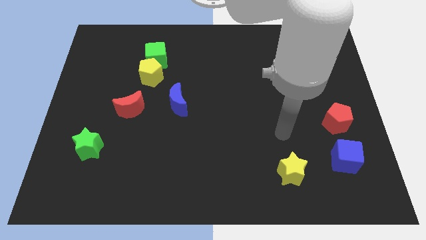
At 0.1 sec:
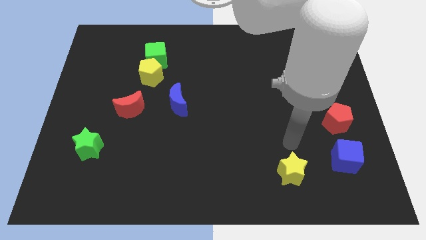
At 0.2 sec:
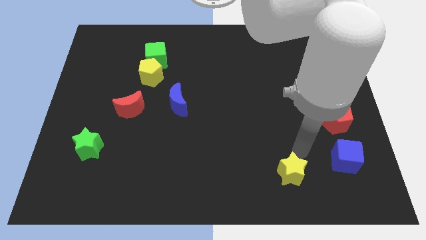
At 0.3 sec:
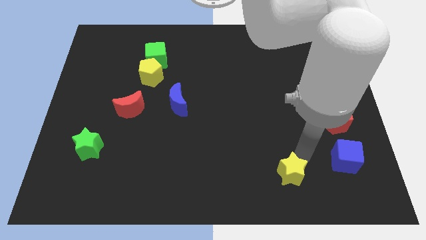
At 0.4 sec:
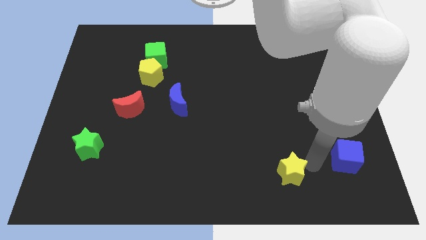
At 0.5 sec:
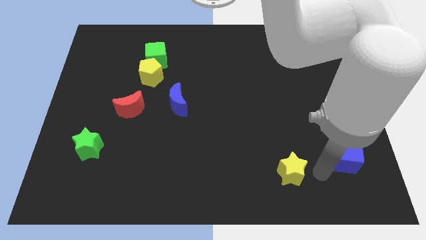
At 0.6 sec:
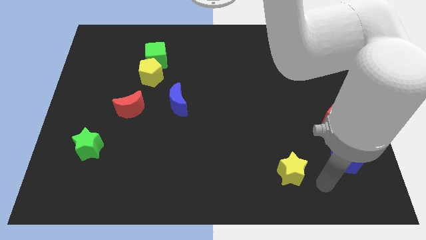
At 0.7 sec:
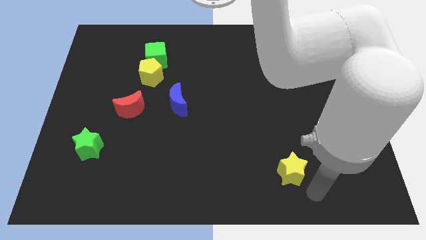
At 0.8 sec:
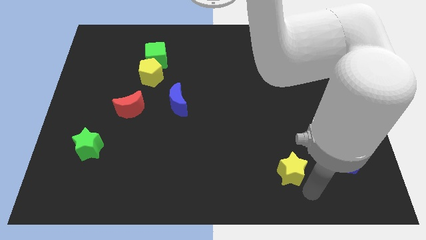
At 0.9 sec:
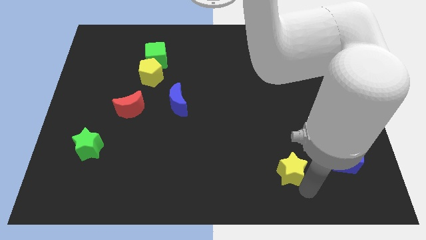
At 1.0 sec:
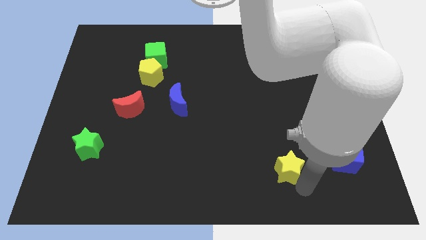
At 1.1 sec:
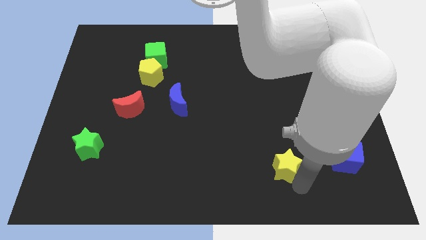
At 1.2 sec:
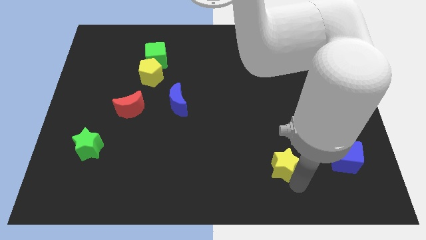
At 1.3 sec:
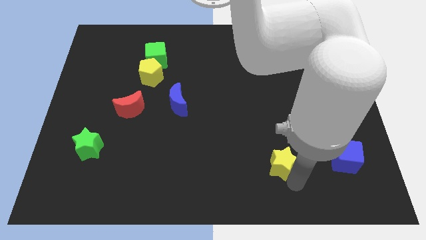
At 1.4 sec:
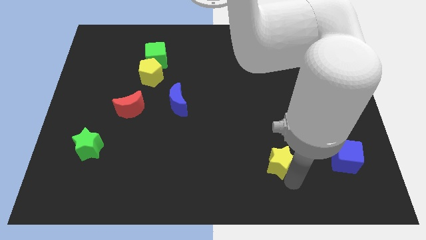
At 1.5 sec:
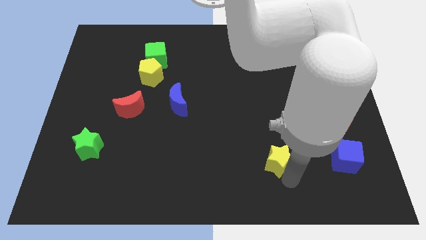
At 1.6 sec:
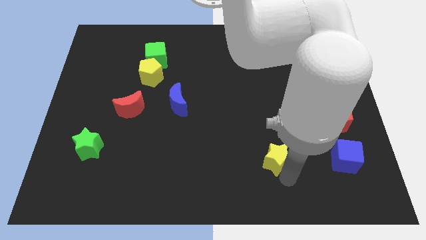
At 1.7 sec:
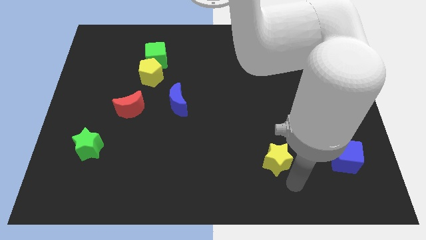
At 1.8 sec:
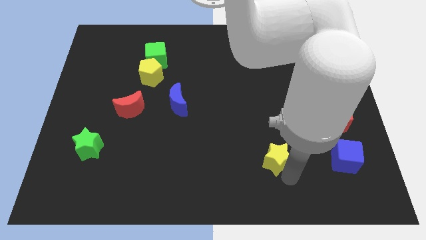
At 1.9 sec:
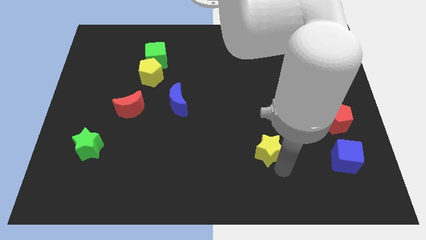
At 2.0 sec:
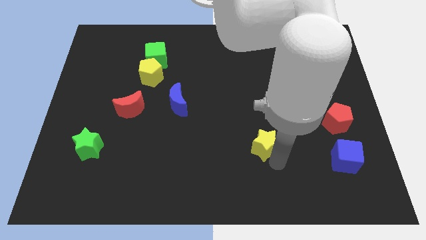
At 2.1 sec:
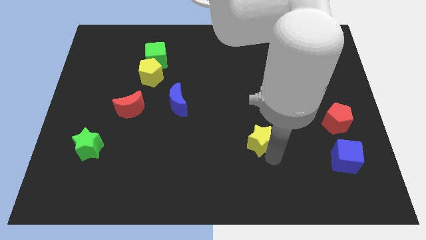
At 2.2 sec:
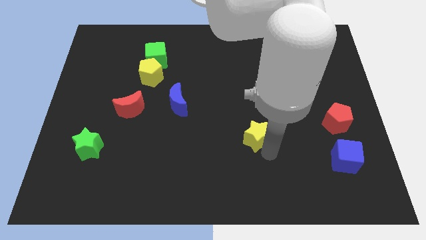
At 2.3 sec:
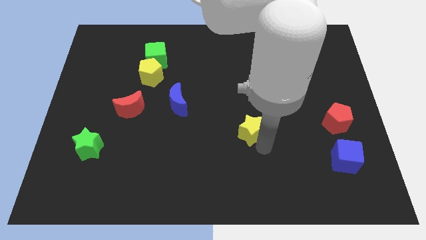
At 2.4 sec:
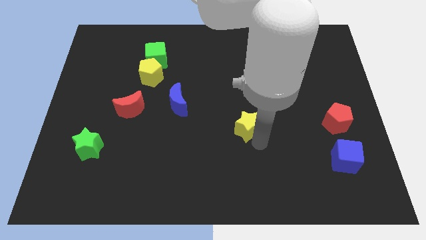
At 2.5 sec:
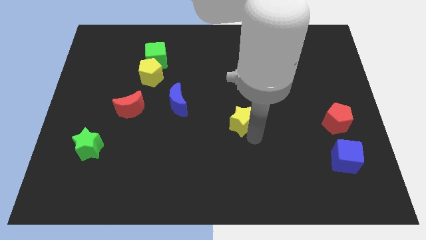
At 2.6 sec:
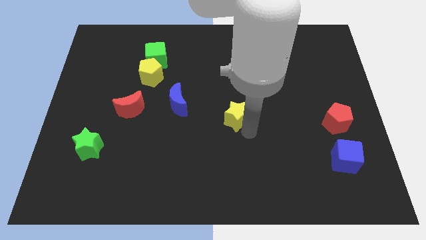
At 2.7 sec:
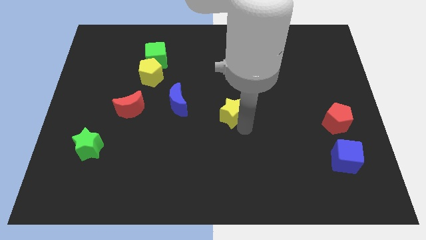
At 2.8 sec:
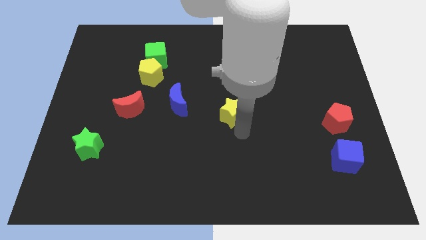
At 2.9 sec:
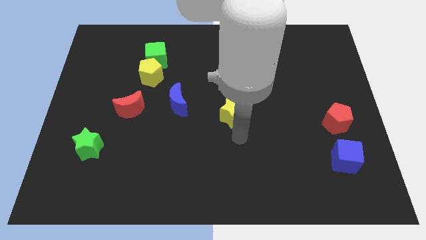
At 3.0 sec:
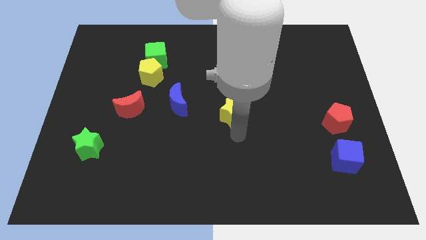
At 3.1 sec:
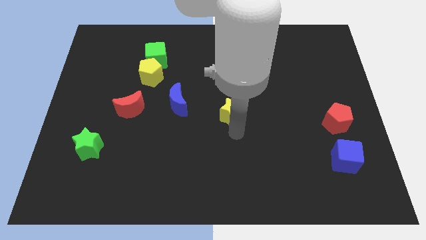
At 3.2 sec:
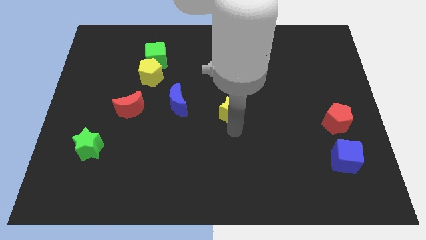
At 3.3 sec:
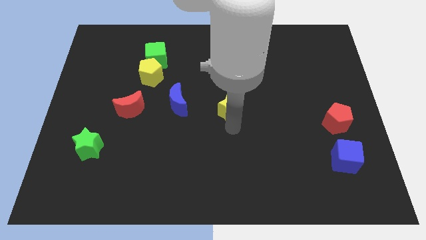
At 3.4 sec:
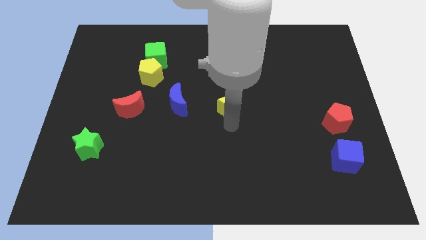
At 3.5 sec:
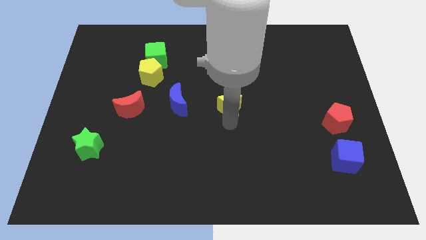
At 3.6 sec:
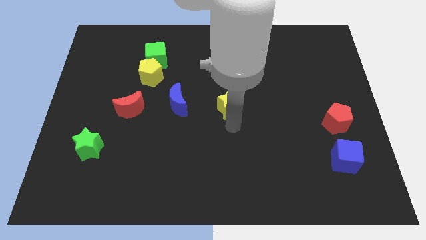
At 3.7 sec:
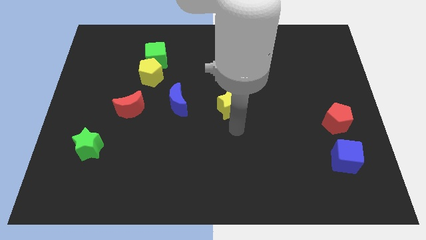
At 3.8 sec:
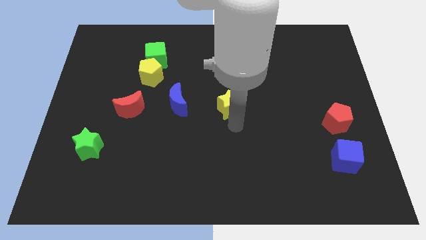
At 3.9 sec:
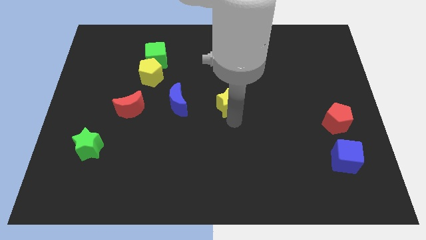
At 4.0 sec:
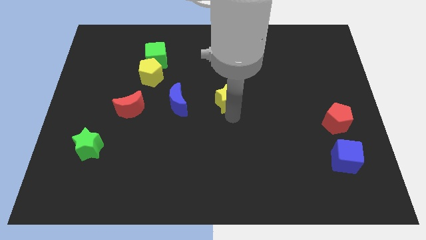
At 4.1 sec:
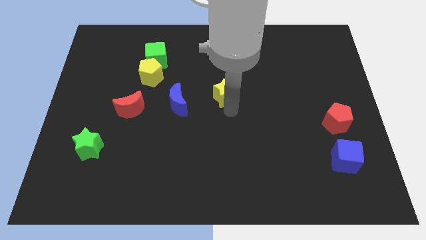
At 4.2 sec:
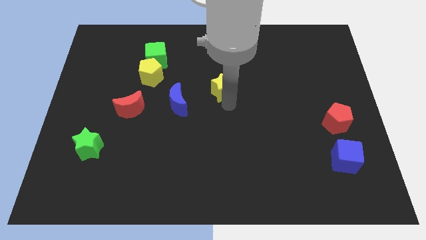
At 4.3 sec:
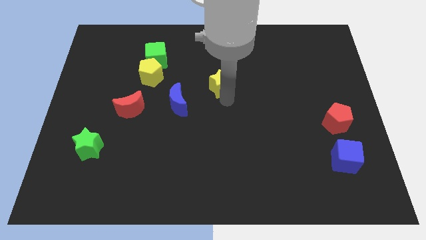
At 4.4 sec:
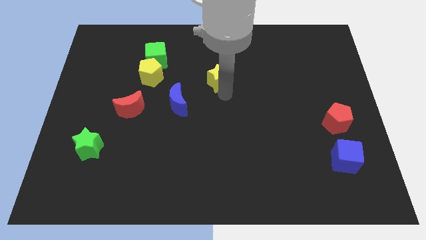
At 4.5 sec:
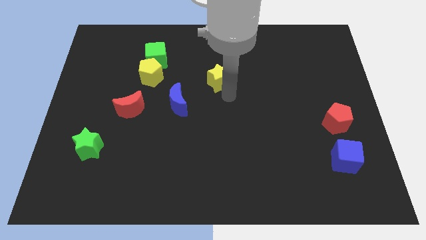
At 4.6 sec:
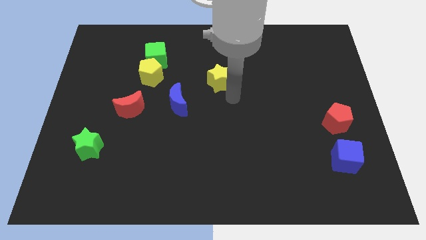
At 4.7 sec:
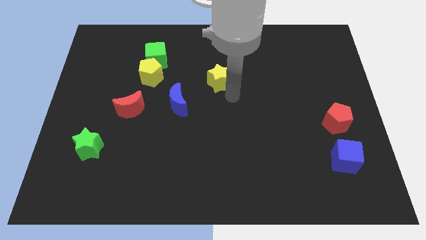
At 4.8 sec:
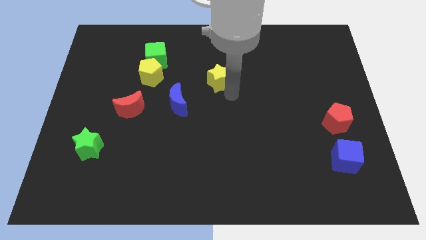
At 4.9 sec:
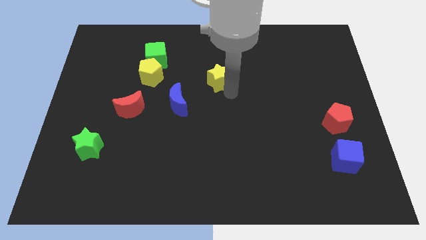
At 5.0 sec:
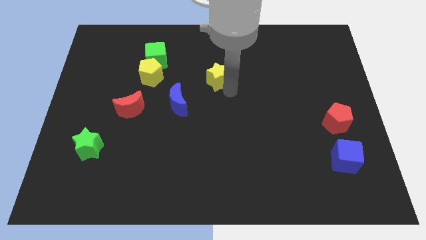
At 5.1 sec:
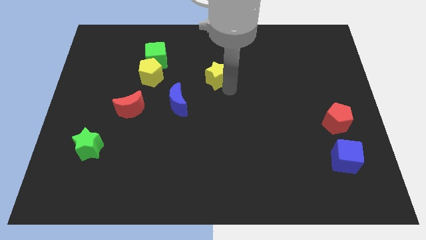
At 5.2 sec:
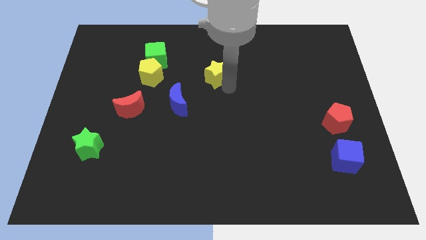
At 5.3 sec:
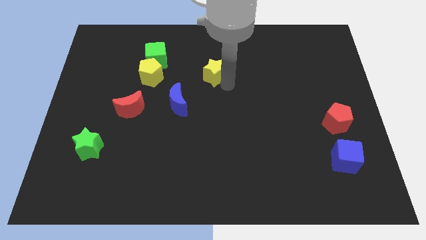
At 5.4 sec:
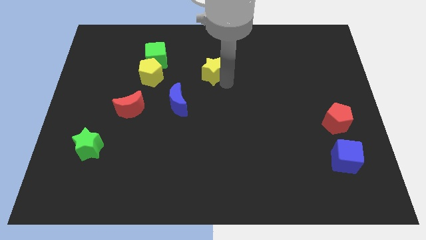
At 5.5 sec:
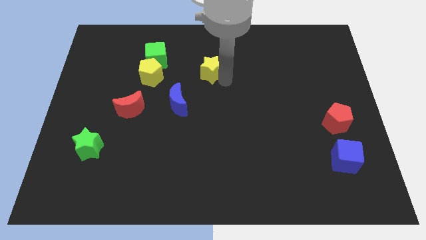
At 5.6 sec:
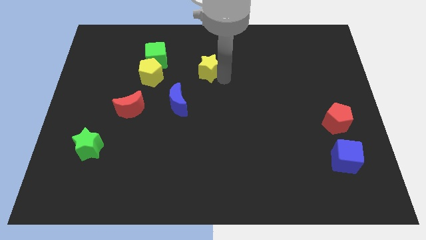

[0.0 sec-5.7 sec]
slide the yellow star to the right of the green cube

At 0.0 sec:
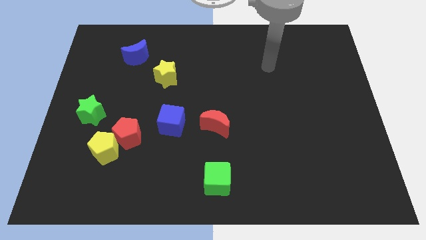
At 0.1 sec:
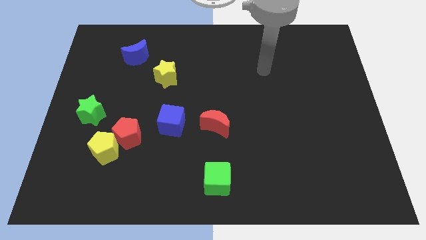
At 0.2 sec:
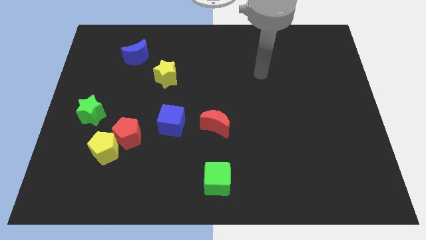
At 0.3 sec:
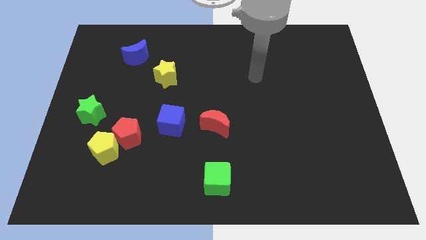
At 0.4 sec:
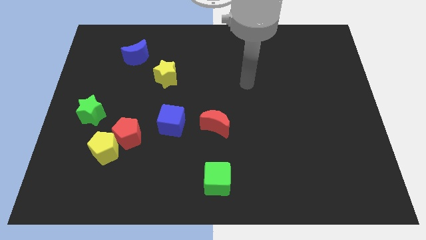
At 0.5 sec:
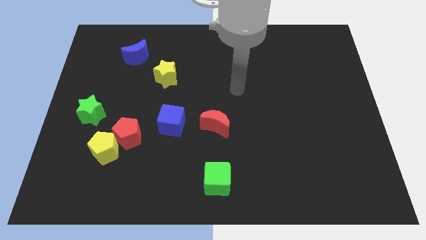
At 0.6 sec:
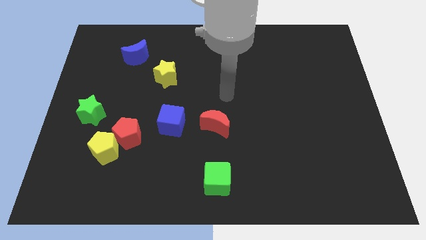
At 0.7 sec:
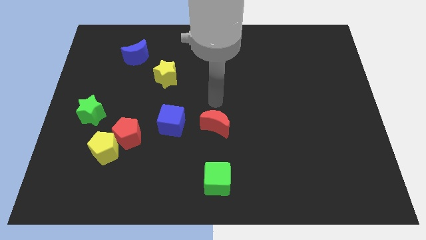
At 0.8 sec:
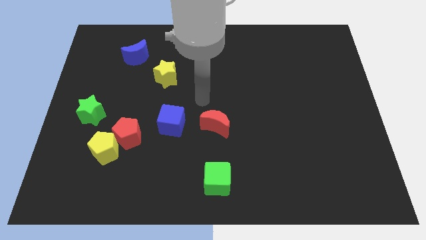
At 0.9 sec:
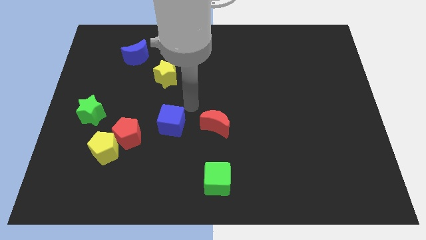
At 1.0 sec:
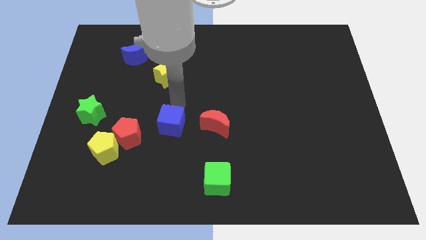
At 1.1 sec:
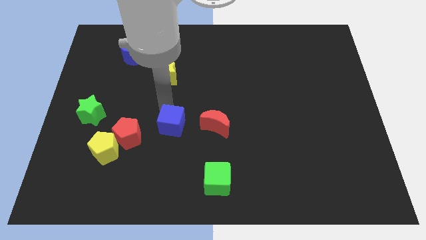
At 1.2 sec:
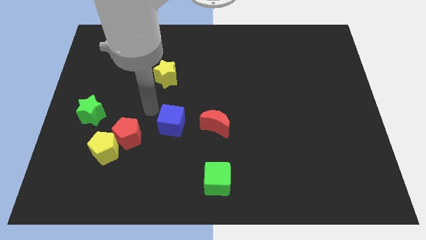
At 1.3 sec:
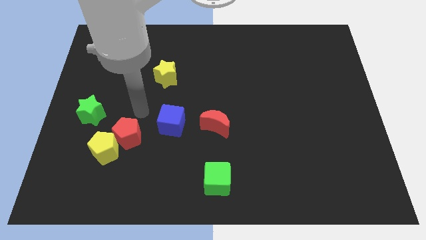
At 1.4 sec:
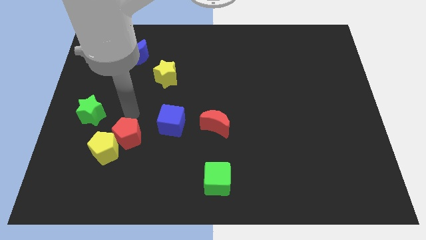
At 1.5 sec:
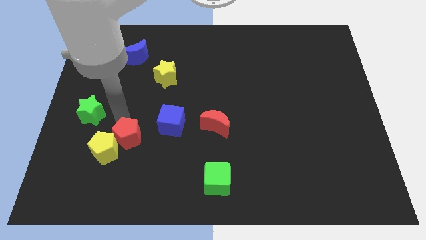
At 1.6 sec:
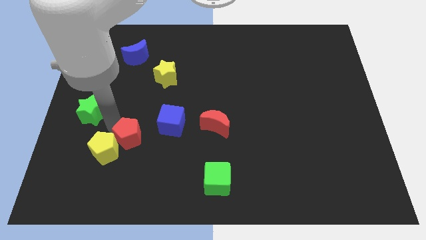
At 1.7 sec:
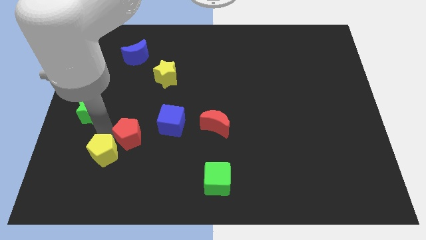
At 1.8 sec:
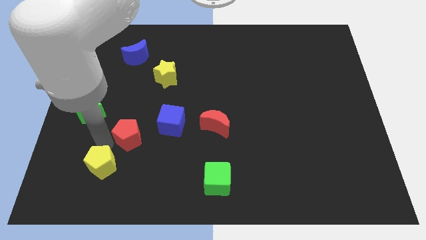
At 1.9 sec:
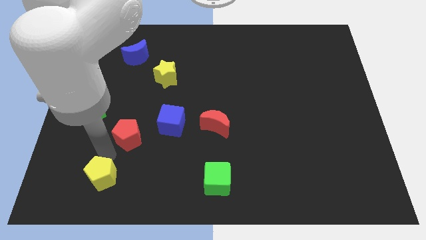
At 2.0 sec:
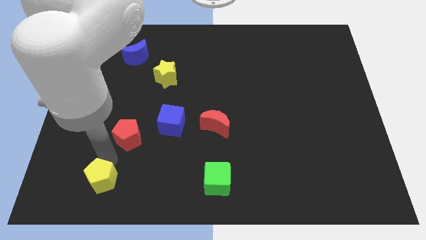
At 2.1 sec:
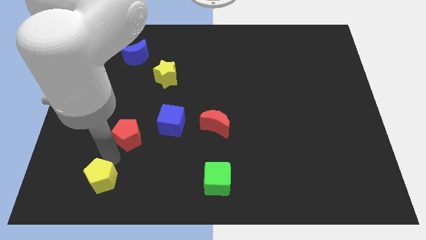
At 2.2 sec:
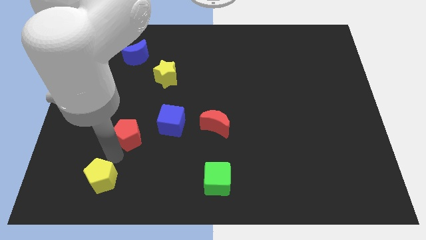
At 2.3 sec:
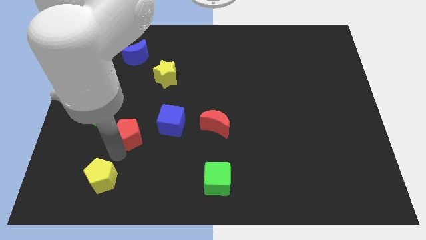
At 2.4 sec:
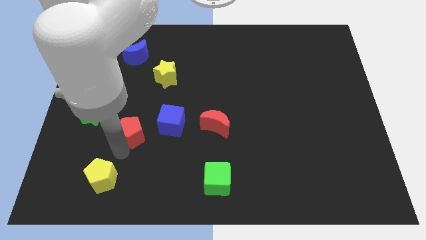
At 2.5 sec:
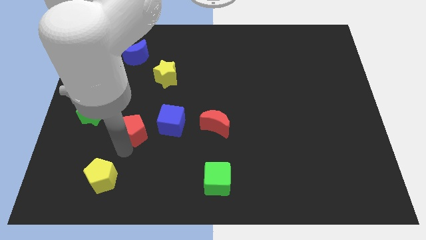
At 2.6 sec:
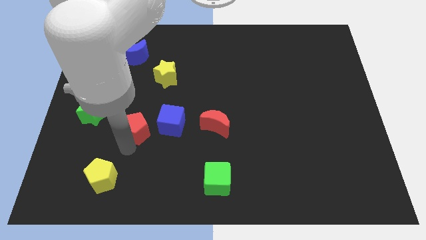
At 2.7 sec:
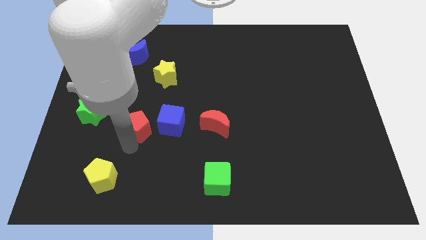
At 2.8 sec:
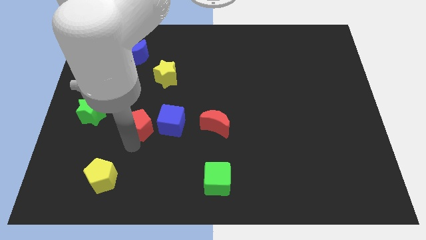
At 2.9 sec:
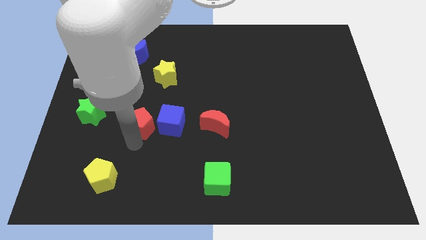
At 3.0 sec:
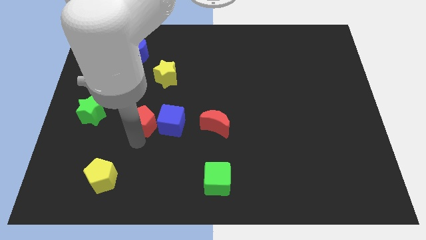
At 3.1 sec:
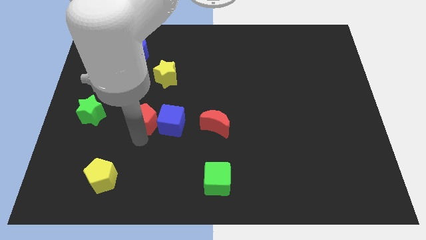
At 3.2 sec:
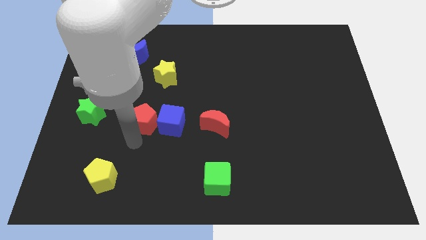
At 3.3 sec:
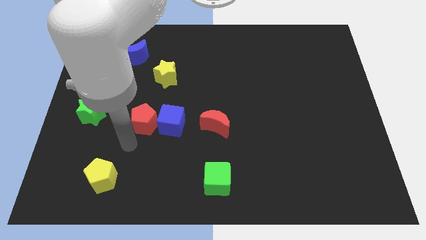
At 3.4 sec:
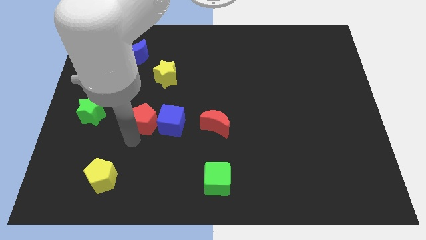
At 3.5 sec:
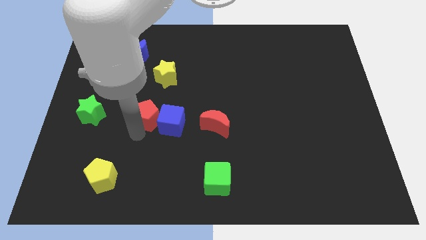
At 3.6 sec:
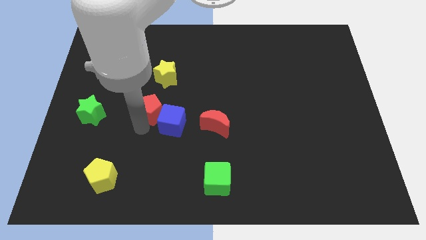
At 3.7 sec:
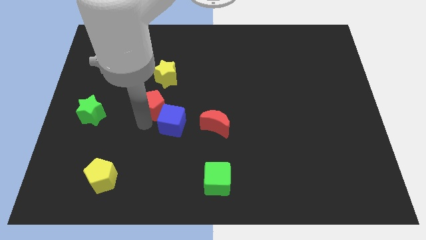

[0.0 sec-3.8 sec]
move the red pentagon above the blue cube
